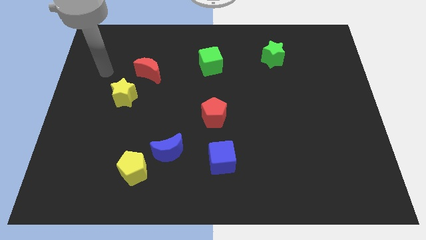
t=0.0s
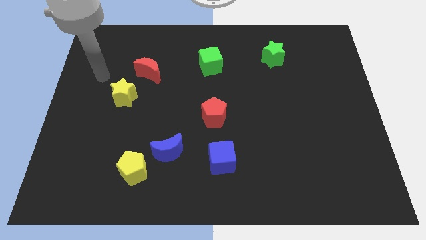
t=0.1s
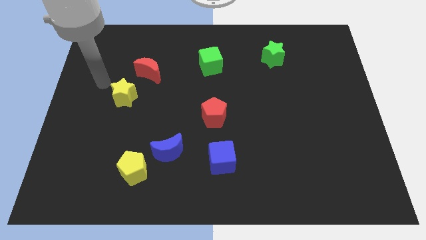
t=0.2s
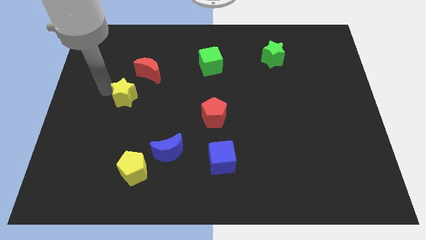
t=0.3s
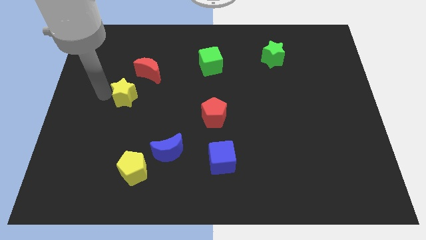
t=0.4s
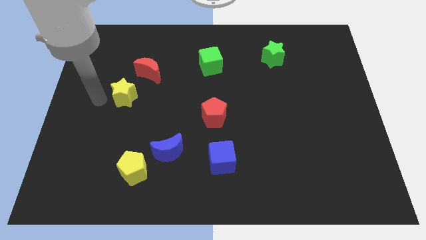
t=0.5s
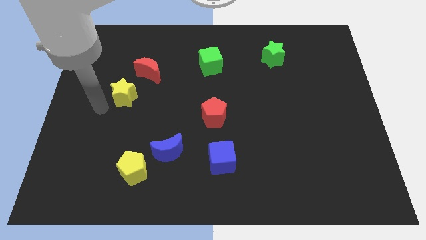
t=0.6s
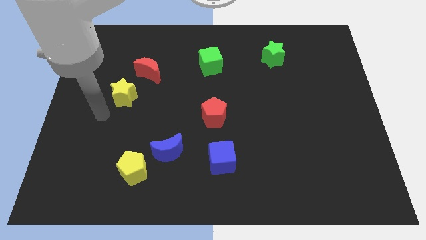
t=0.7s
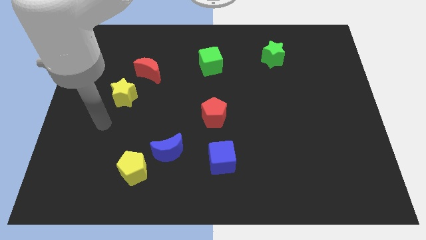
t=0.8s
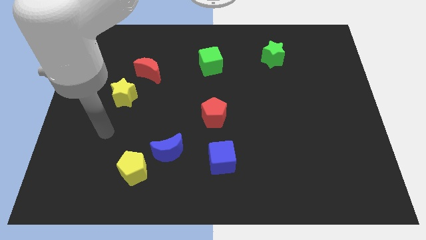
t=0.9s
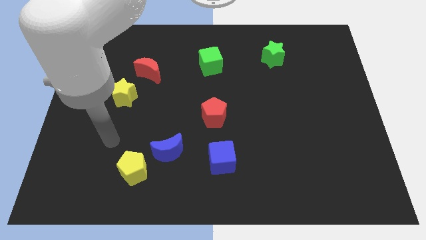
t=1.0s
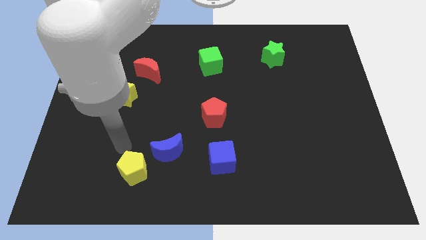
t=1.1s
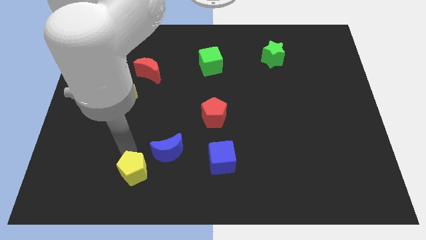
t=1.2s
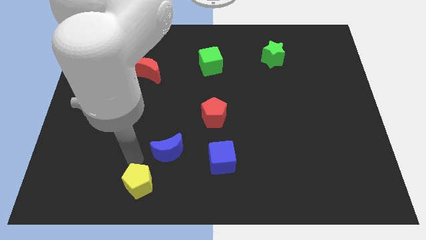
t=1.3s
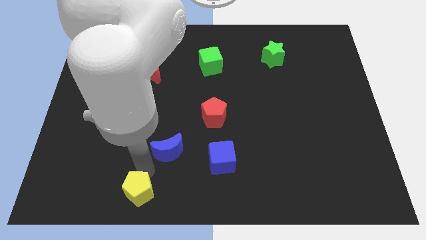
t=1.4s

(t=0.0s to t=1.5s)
pull the blue moon apart from the yellow pentagon

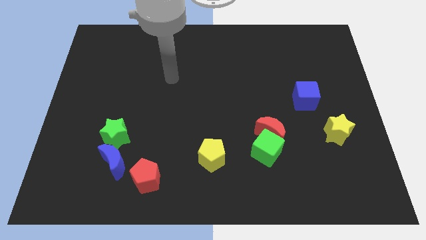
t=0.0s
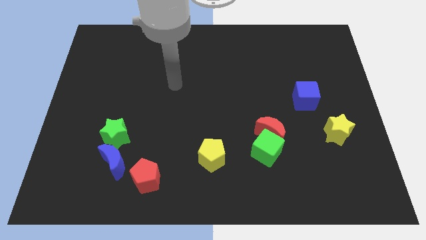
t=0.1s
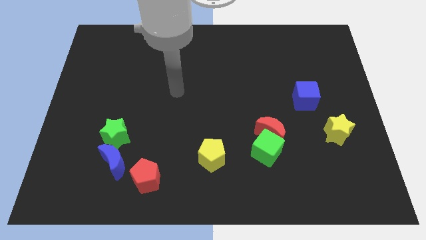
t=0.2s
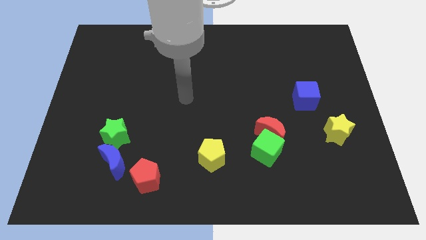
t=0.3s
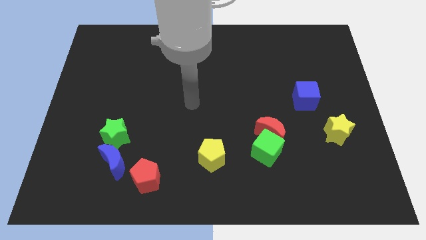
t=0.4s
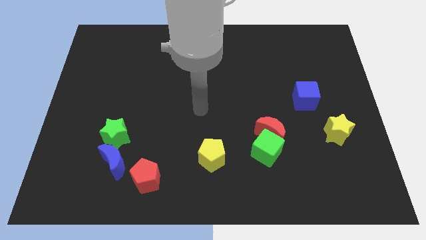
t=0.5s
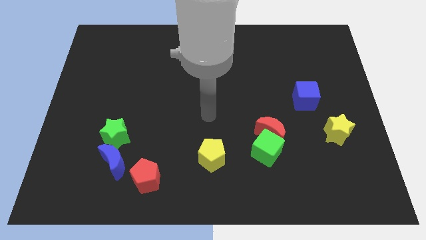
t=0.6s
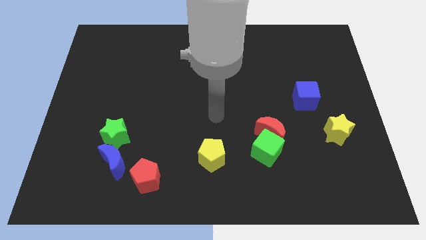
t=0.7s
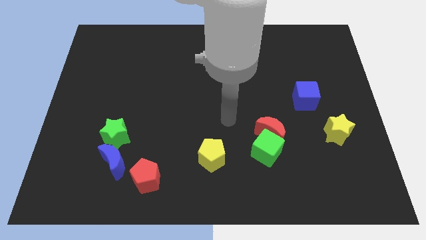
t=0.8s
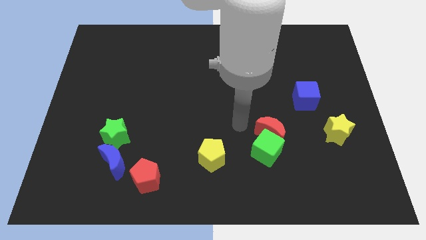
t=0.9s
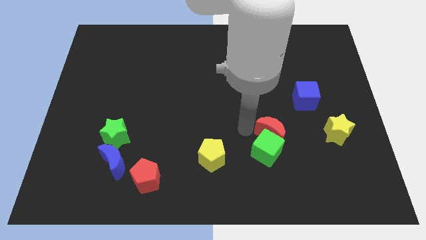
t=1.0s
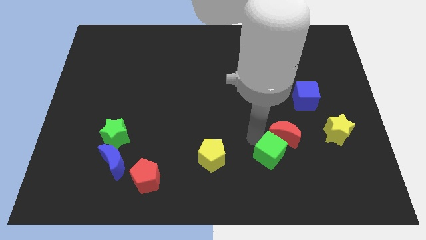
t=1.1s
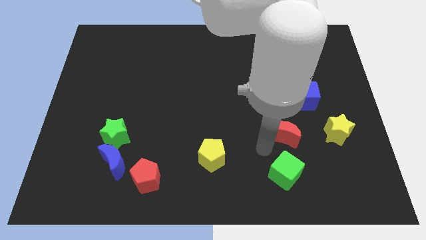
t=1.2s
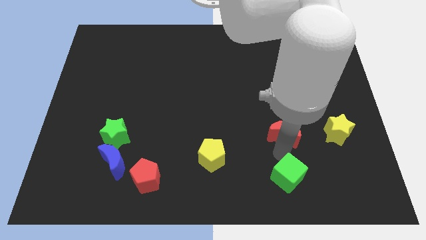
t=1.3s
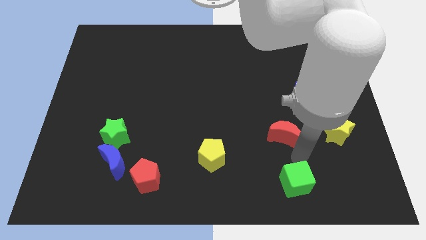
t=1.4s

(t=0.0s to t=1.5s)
separate the red moon from the green cube

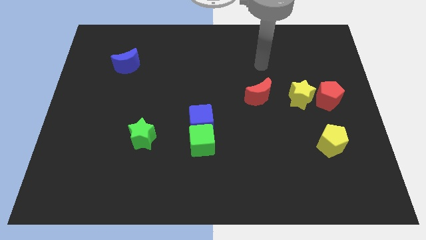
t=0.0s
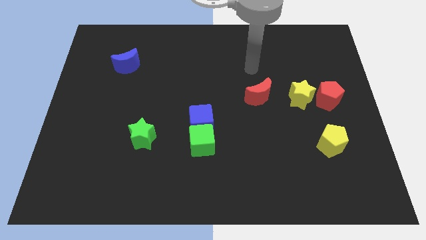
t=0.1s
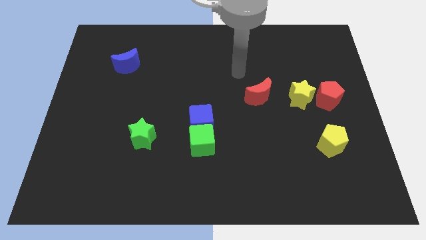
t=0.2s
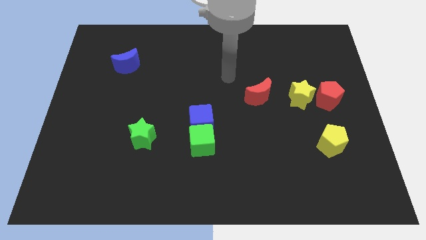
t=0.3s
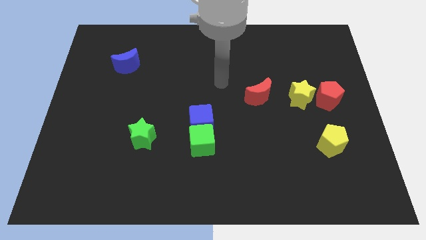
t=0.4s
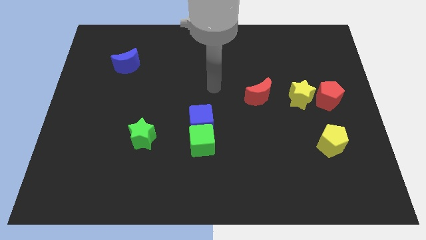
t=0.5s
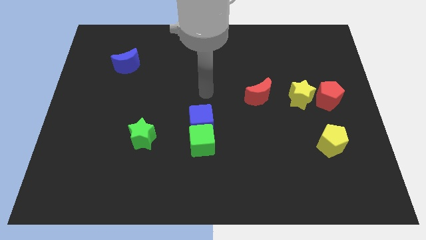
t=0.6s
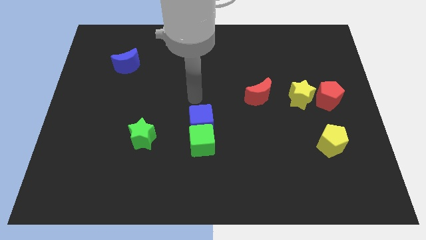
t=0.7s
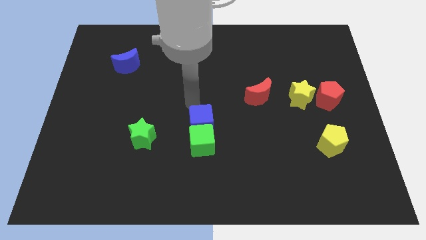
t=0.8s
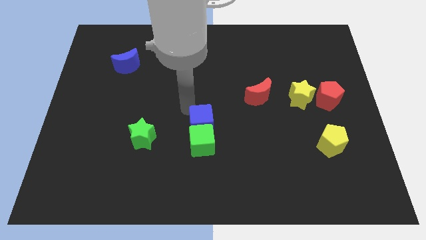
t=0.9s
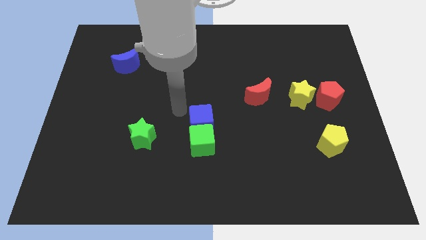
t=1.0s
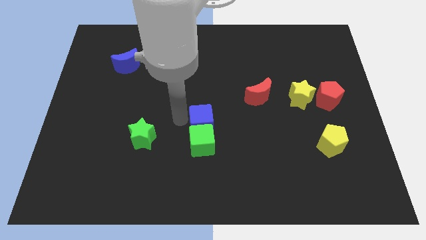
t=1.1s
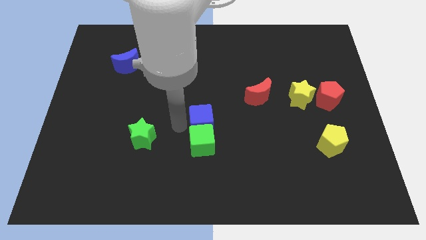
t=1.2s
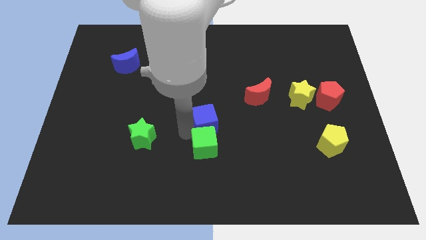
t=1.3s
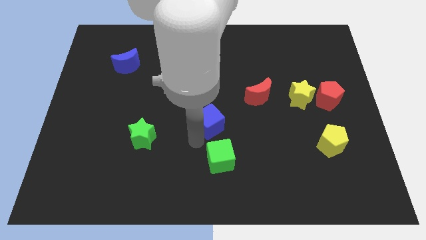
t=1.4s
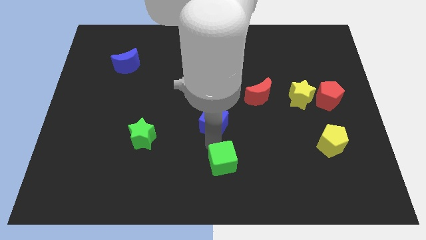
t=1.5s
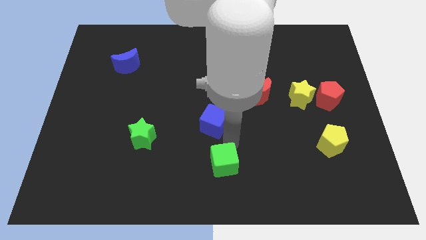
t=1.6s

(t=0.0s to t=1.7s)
pull the blue cube apart from the green cube

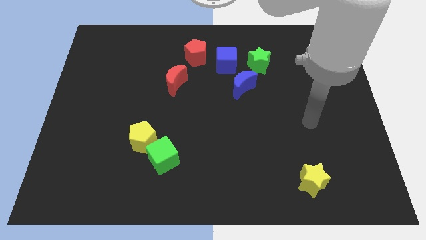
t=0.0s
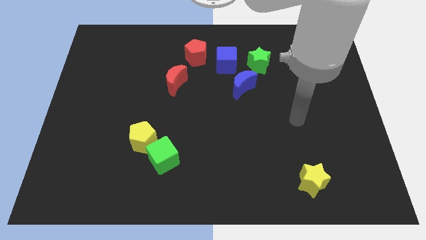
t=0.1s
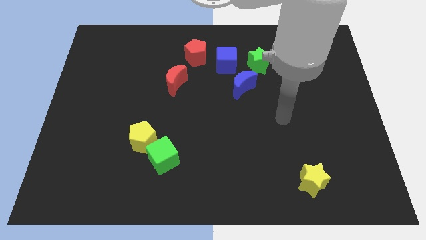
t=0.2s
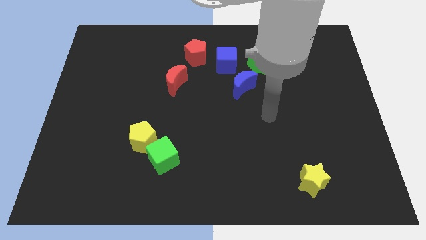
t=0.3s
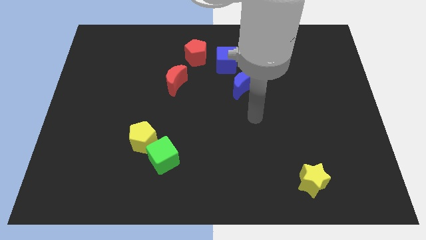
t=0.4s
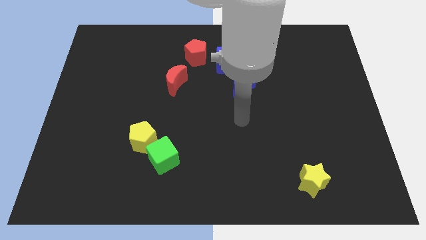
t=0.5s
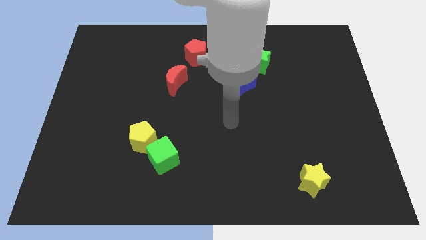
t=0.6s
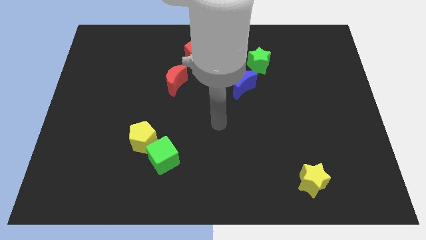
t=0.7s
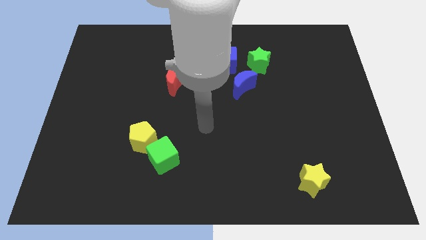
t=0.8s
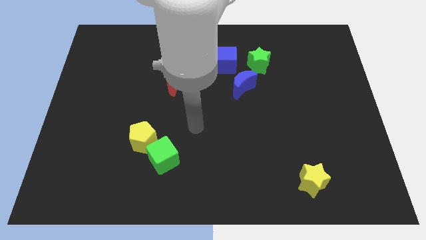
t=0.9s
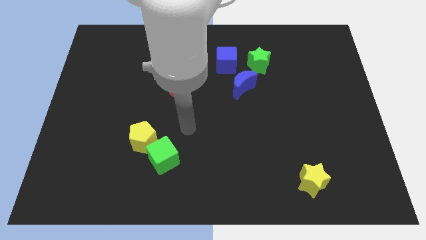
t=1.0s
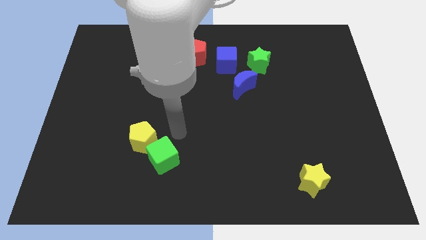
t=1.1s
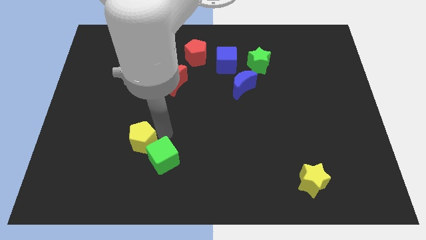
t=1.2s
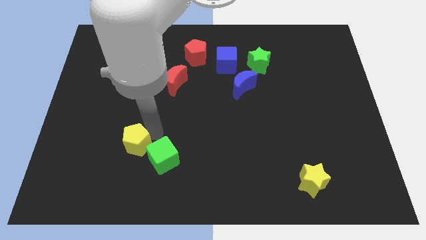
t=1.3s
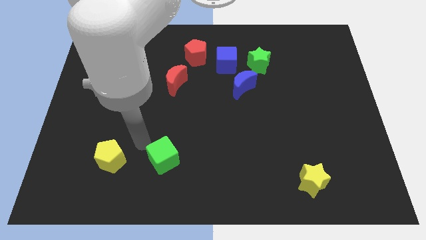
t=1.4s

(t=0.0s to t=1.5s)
pull the green cube apart from the yellow pentagon

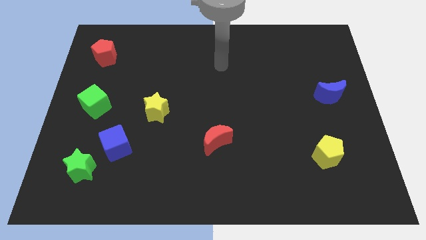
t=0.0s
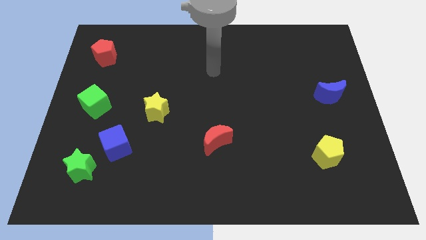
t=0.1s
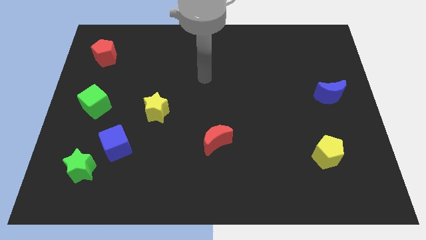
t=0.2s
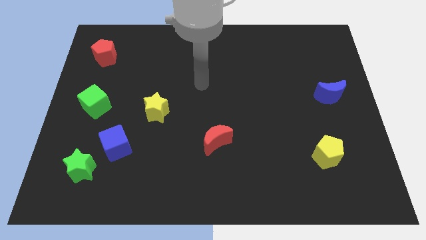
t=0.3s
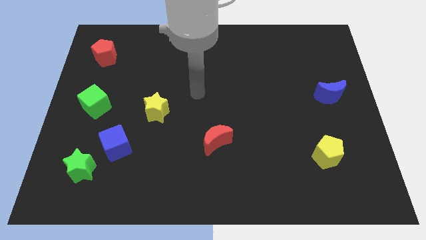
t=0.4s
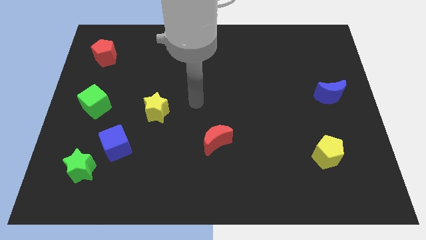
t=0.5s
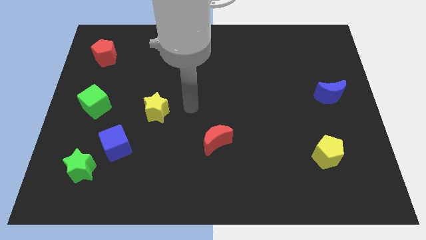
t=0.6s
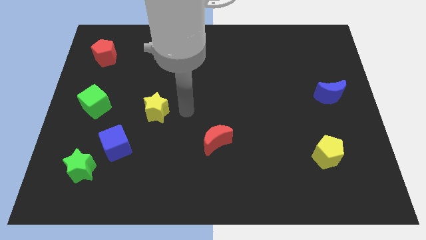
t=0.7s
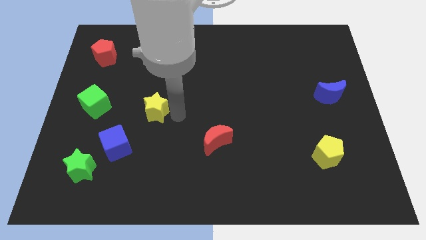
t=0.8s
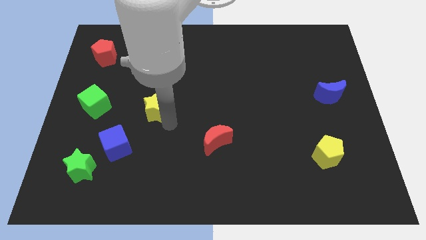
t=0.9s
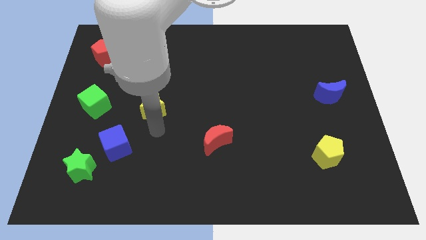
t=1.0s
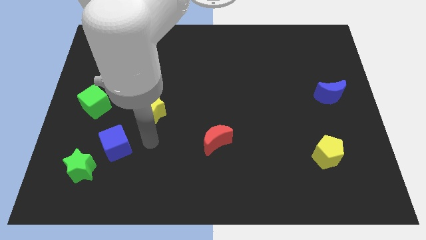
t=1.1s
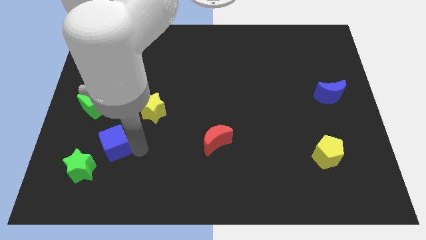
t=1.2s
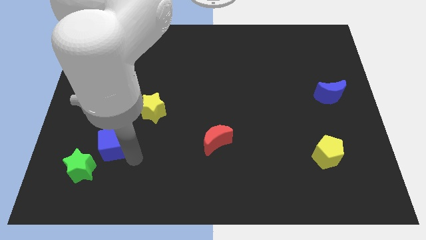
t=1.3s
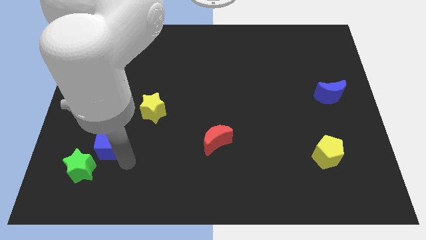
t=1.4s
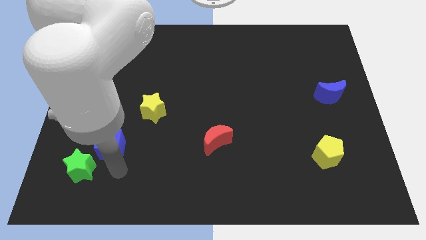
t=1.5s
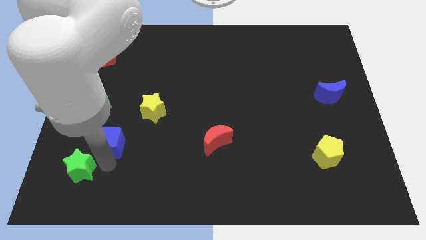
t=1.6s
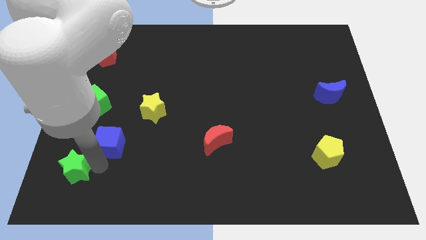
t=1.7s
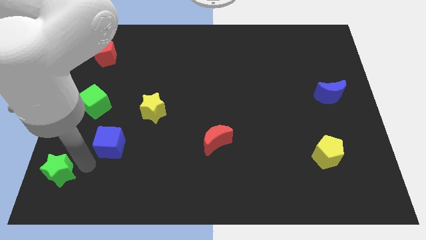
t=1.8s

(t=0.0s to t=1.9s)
move the blue cube away from the green star

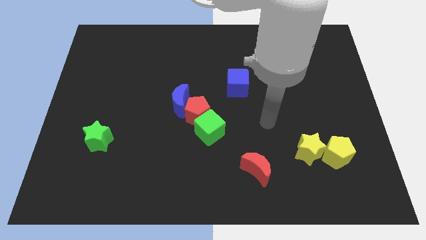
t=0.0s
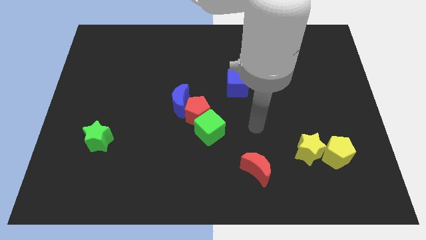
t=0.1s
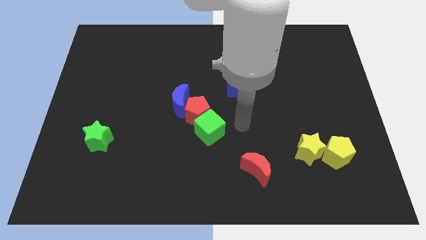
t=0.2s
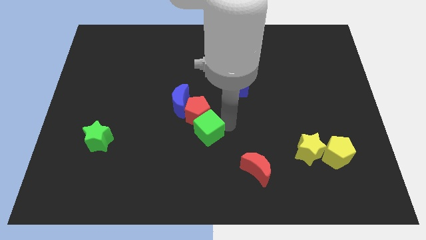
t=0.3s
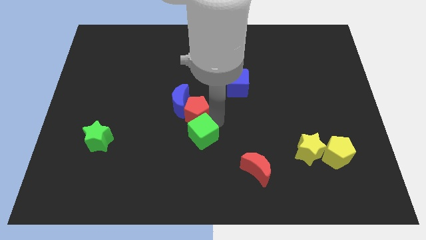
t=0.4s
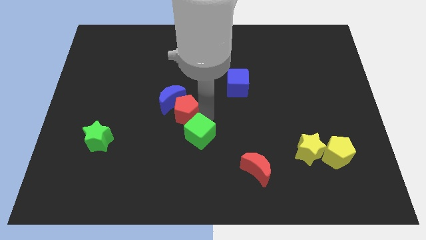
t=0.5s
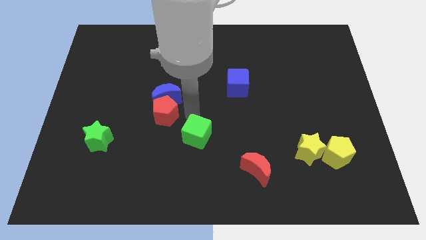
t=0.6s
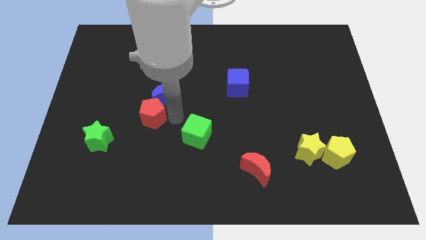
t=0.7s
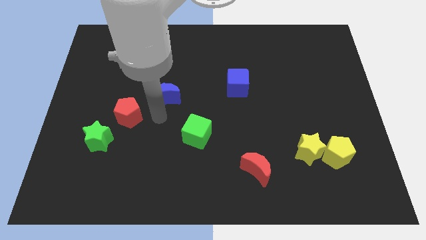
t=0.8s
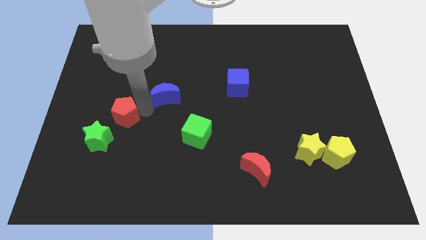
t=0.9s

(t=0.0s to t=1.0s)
move the blue moon away from the red pentagon

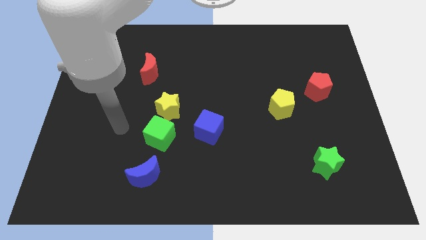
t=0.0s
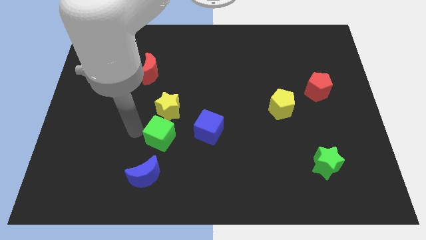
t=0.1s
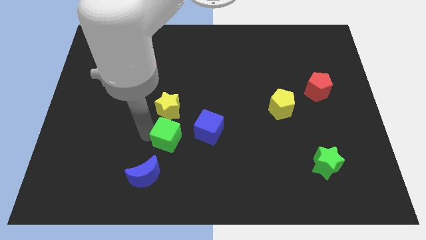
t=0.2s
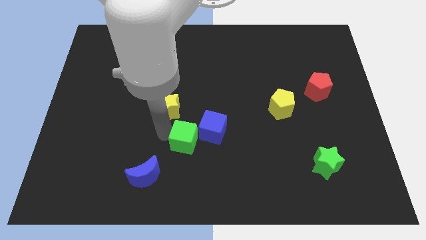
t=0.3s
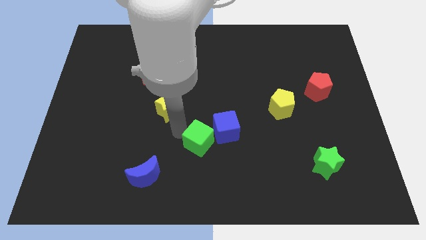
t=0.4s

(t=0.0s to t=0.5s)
move the yellow star away from the green cube
